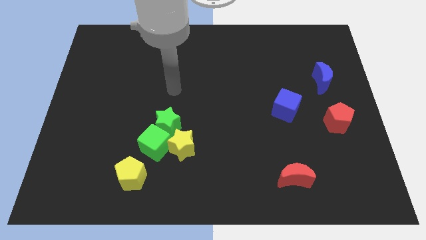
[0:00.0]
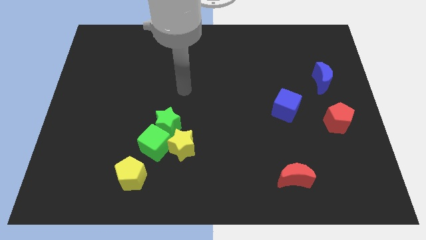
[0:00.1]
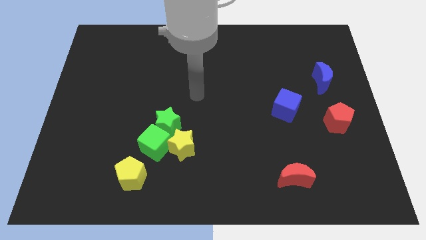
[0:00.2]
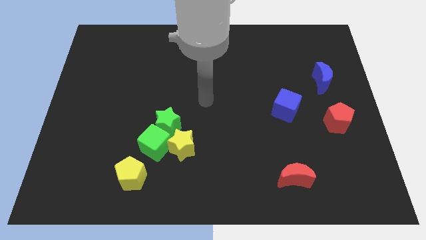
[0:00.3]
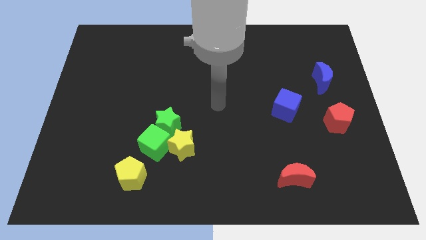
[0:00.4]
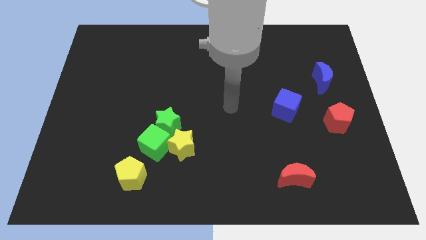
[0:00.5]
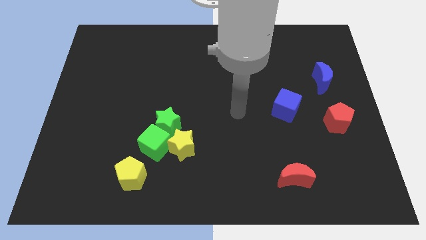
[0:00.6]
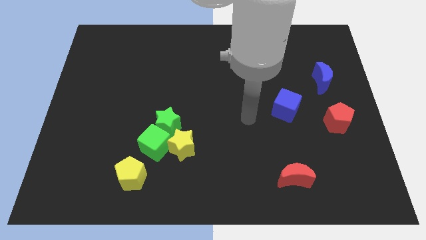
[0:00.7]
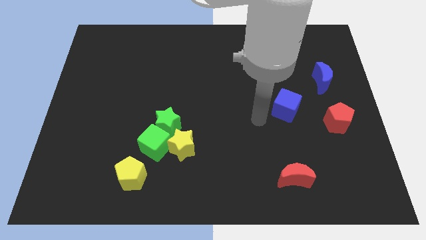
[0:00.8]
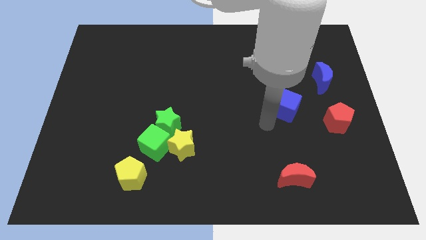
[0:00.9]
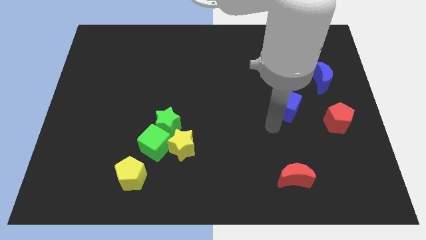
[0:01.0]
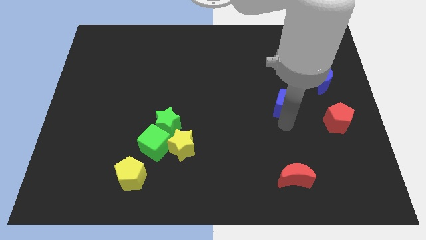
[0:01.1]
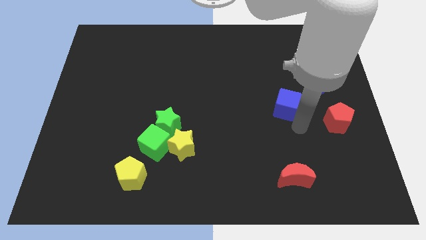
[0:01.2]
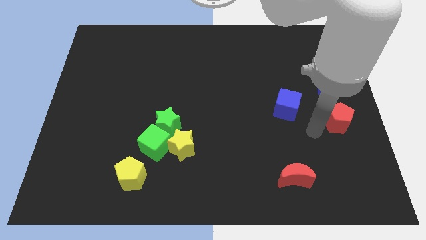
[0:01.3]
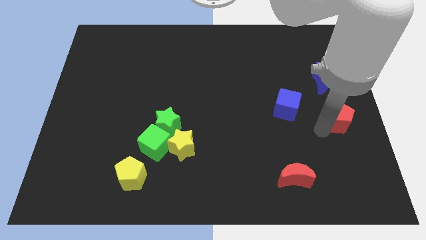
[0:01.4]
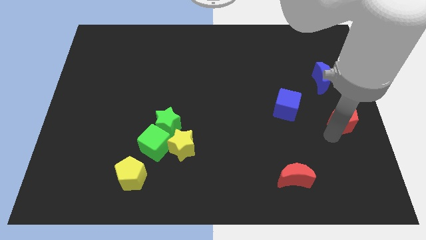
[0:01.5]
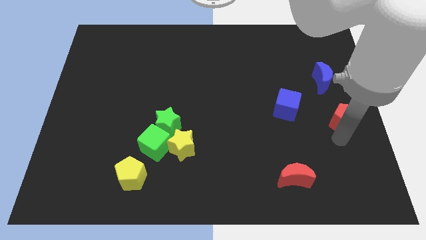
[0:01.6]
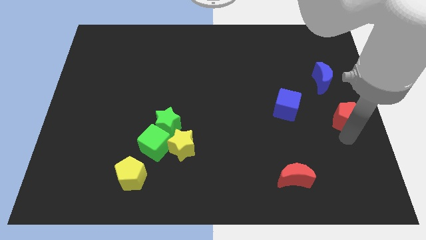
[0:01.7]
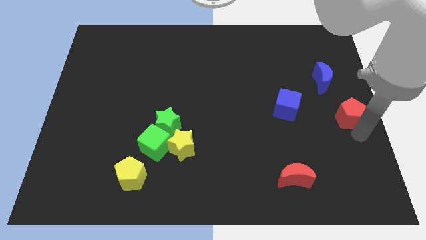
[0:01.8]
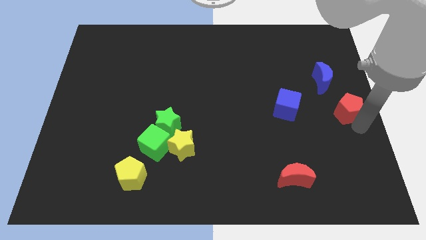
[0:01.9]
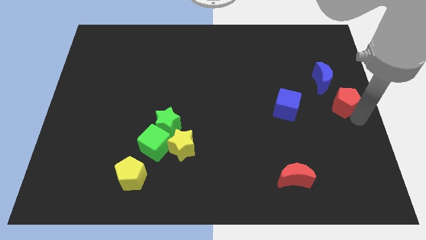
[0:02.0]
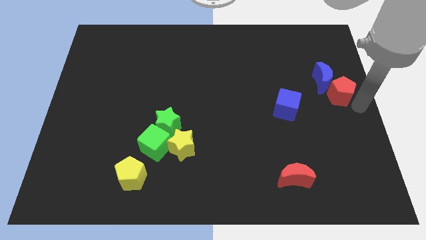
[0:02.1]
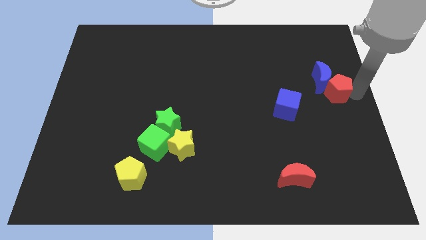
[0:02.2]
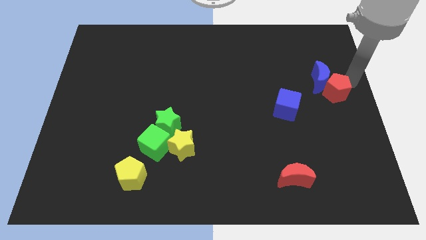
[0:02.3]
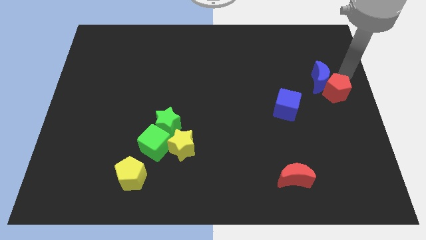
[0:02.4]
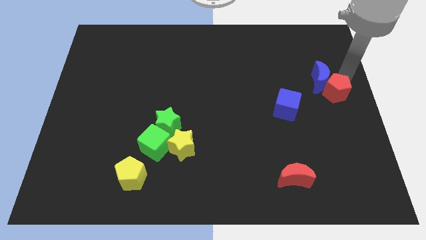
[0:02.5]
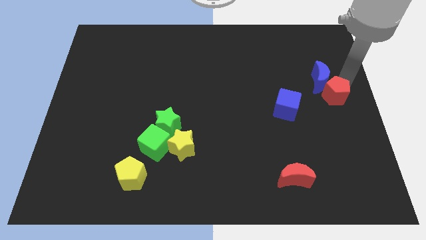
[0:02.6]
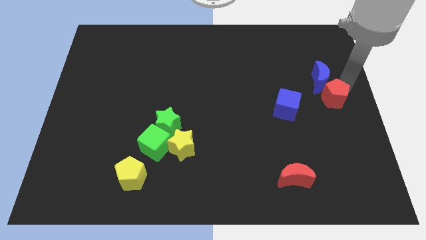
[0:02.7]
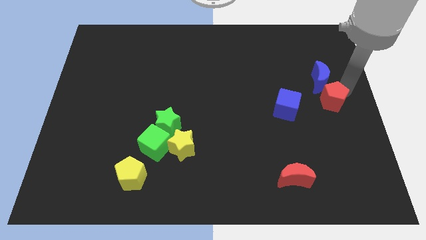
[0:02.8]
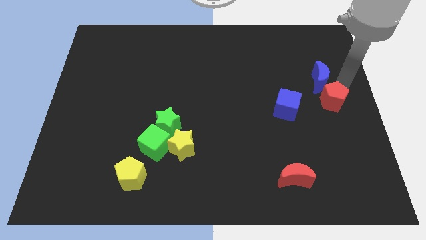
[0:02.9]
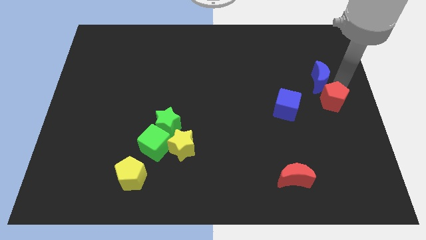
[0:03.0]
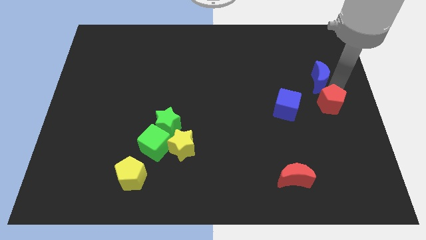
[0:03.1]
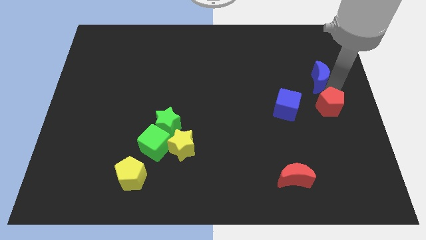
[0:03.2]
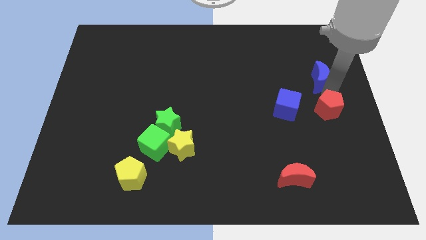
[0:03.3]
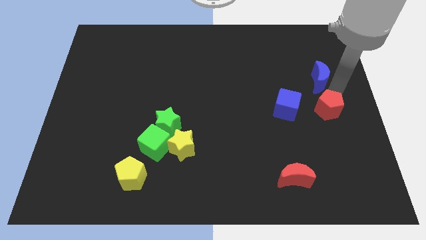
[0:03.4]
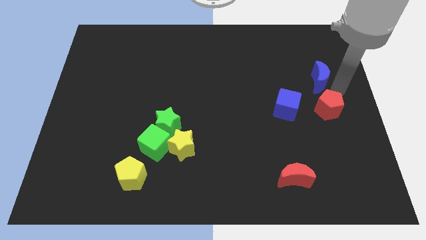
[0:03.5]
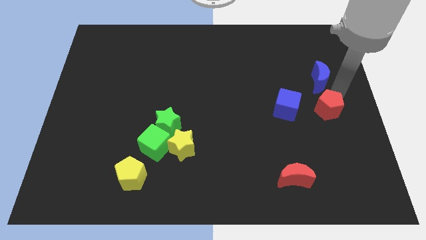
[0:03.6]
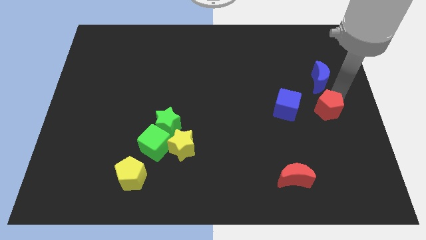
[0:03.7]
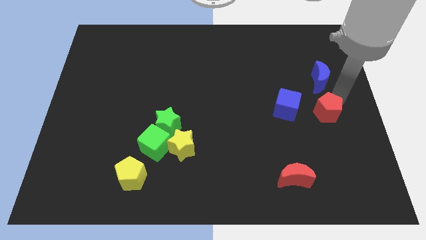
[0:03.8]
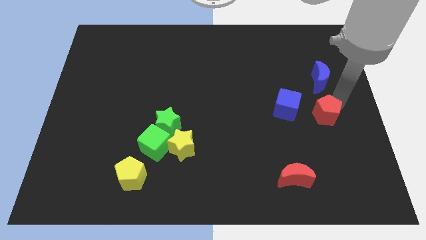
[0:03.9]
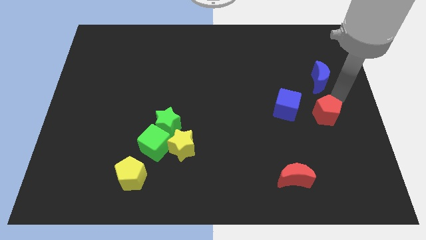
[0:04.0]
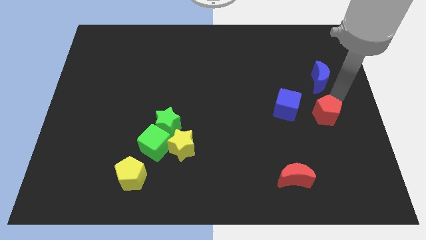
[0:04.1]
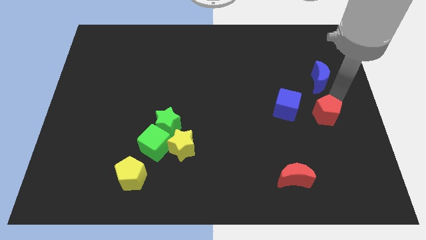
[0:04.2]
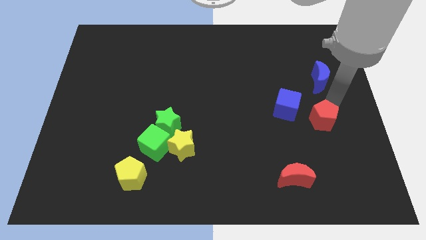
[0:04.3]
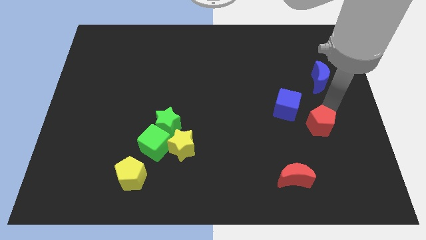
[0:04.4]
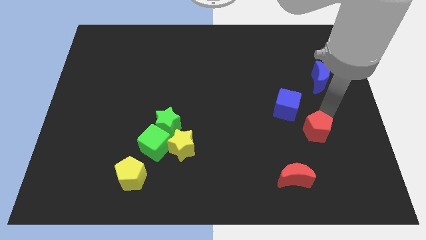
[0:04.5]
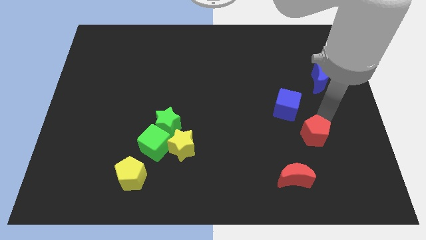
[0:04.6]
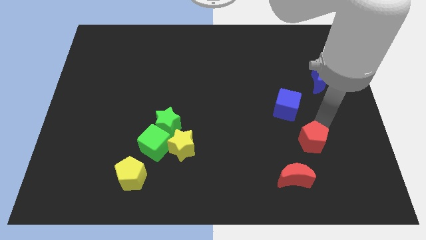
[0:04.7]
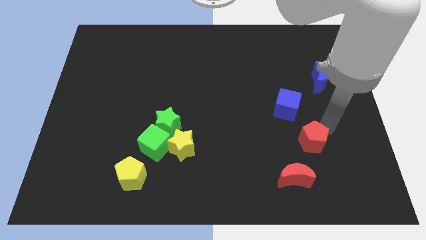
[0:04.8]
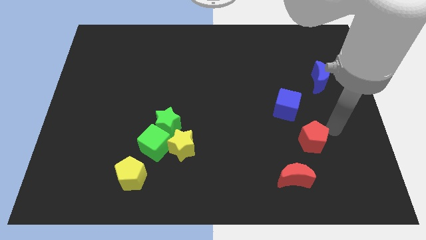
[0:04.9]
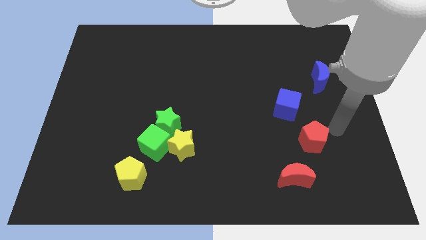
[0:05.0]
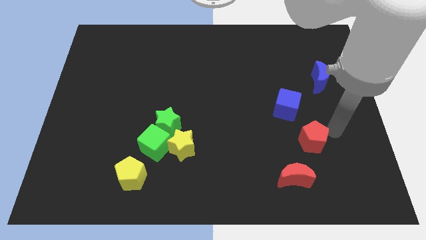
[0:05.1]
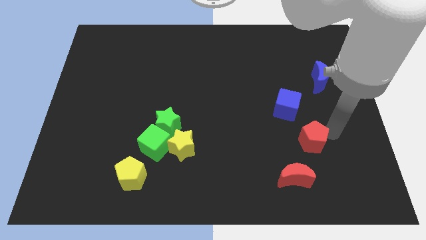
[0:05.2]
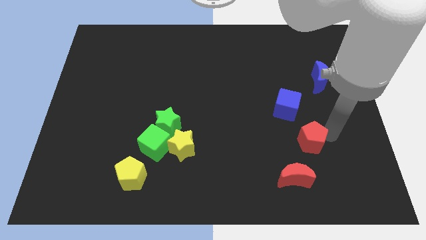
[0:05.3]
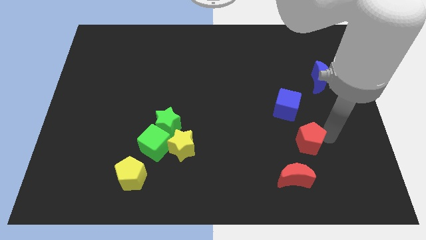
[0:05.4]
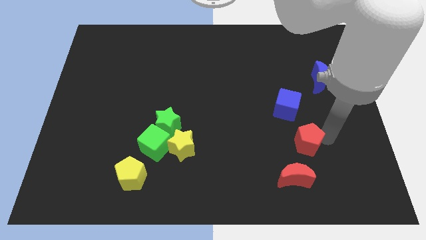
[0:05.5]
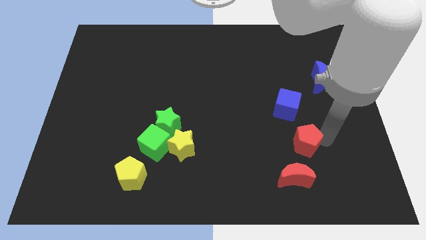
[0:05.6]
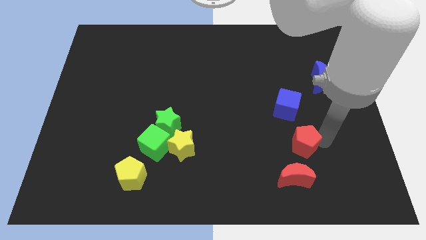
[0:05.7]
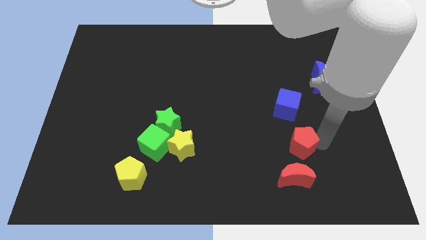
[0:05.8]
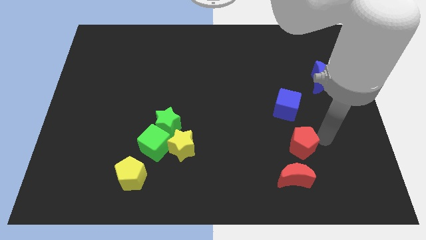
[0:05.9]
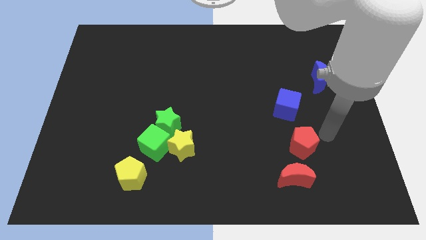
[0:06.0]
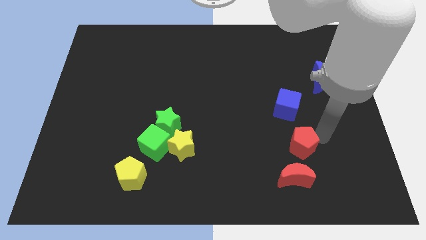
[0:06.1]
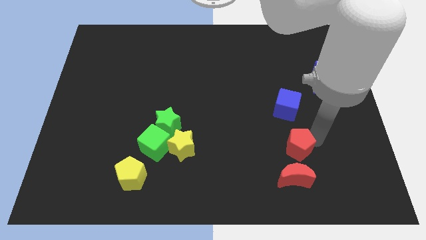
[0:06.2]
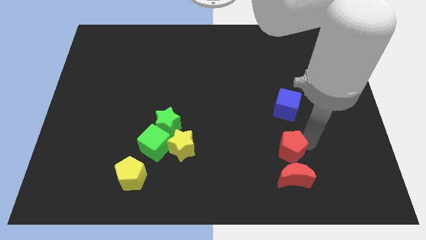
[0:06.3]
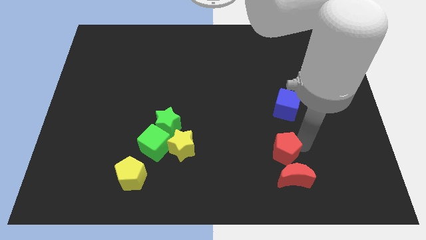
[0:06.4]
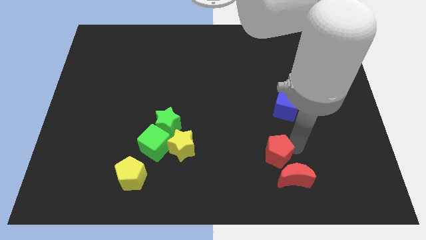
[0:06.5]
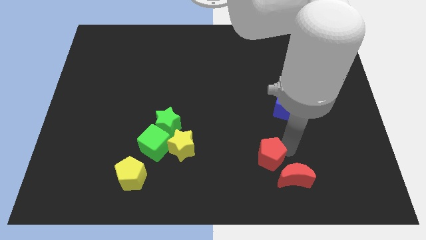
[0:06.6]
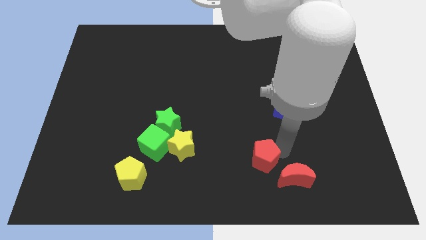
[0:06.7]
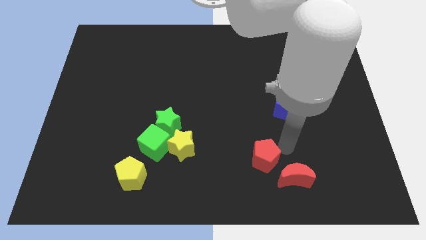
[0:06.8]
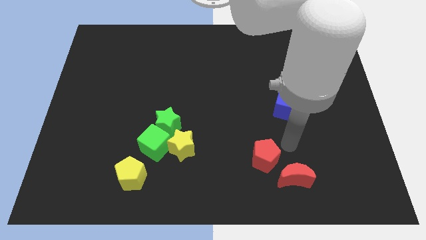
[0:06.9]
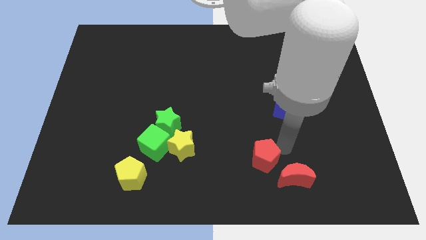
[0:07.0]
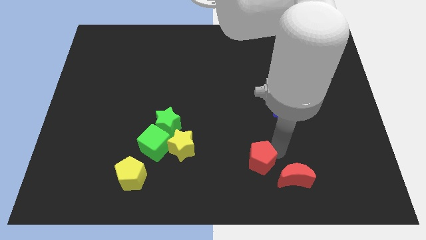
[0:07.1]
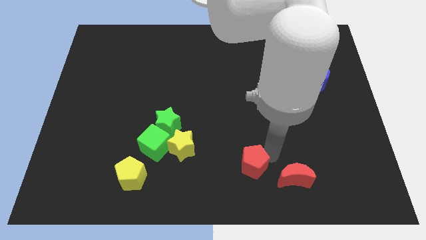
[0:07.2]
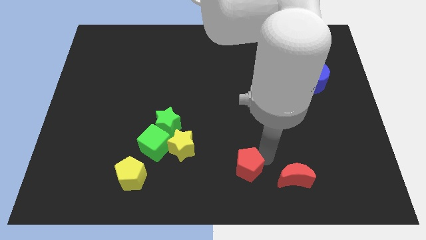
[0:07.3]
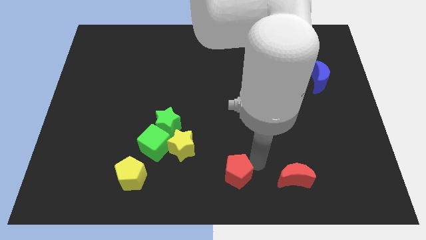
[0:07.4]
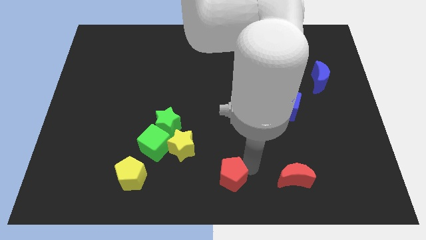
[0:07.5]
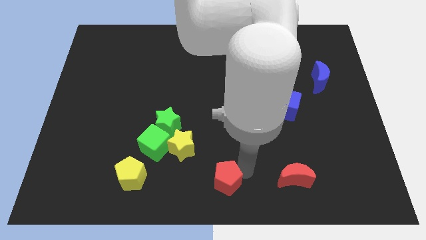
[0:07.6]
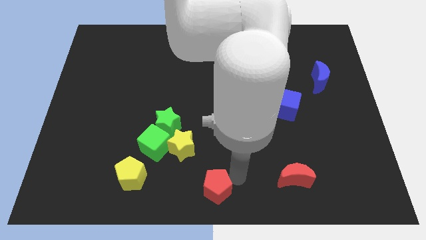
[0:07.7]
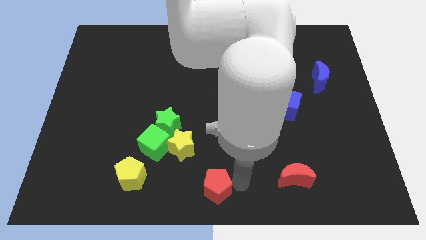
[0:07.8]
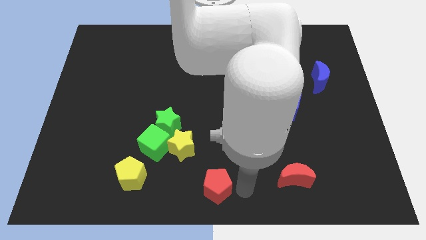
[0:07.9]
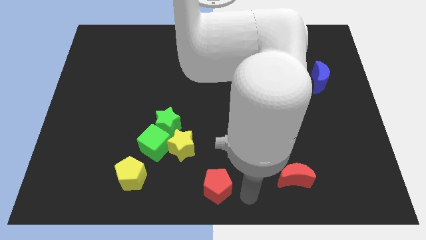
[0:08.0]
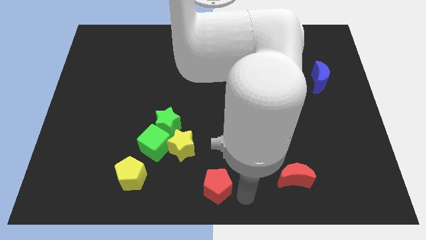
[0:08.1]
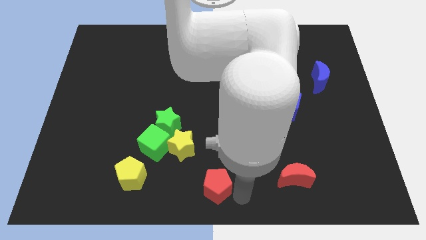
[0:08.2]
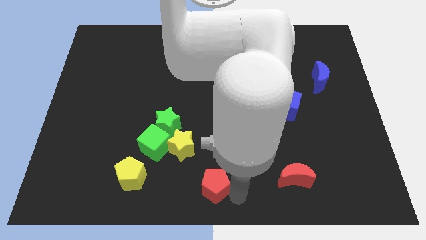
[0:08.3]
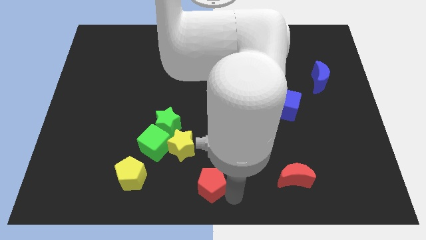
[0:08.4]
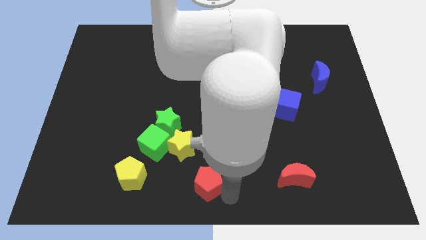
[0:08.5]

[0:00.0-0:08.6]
move the red pentagon just right of the yellow pentagon
